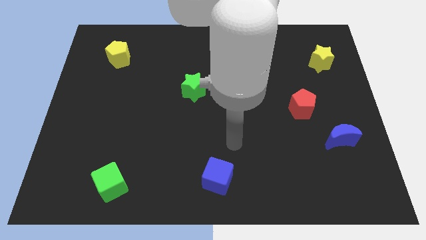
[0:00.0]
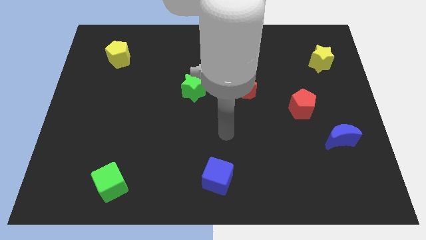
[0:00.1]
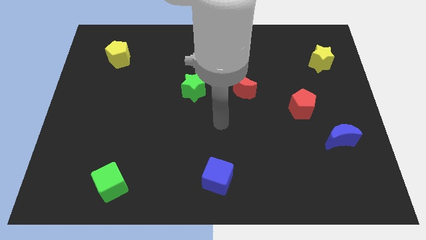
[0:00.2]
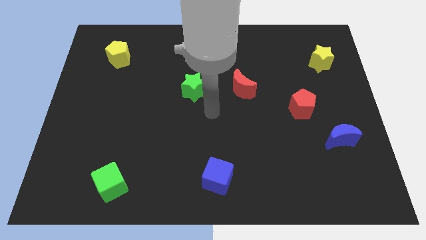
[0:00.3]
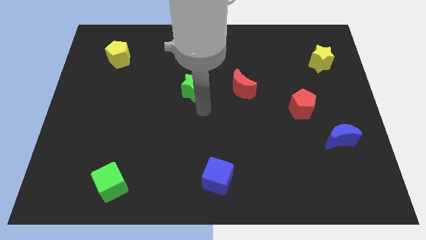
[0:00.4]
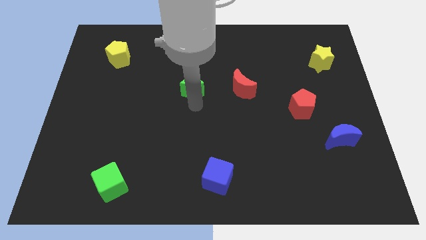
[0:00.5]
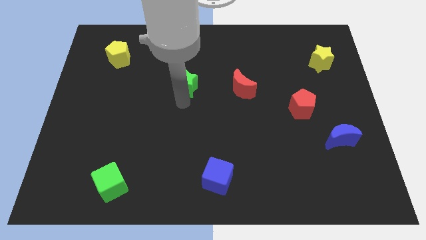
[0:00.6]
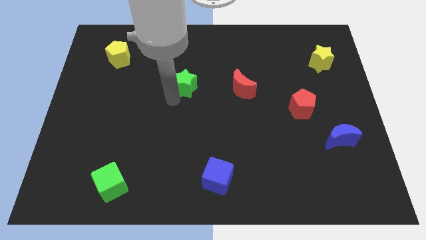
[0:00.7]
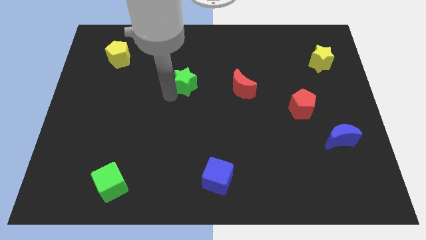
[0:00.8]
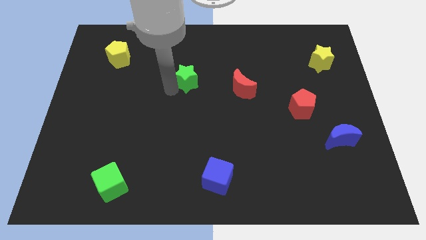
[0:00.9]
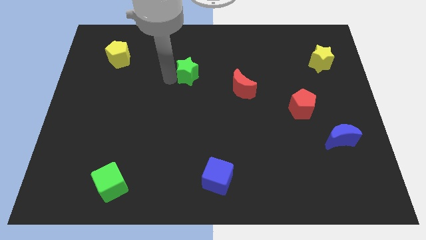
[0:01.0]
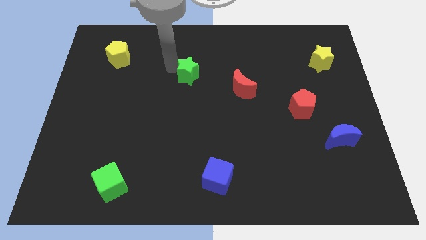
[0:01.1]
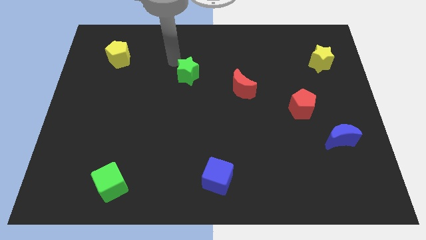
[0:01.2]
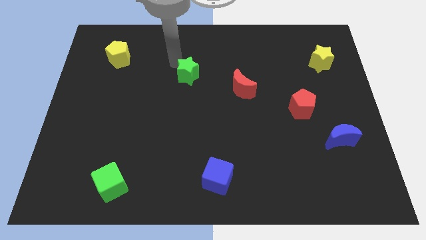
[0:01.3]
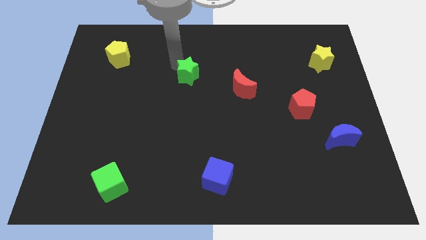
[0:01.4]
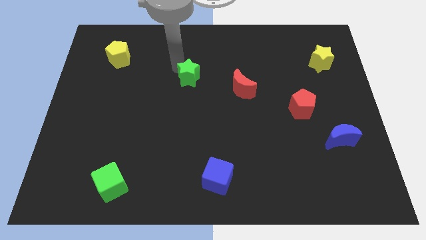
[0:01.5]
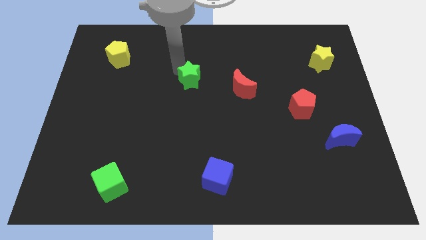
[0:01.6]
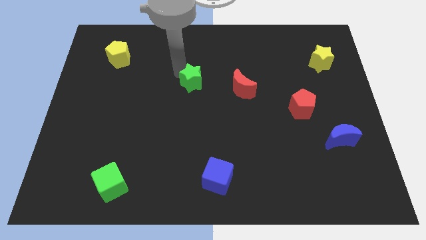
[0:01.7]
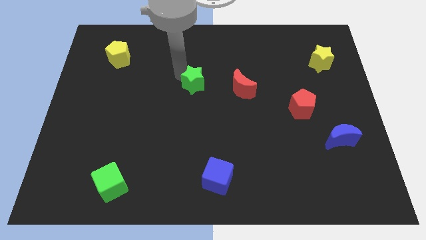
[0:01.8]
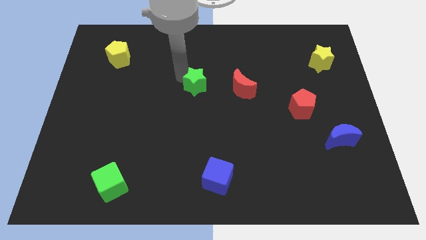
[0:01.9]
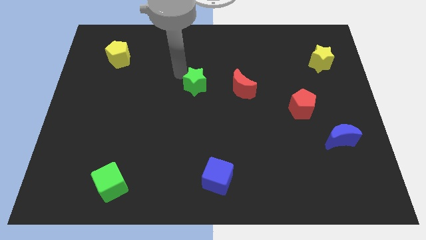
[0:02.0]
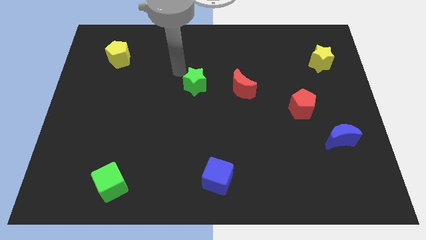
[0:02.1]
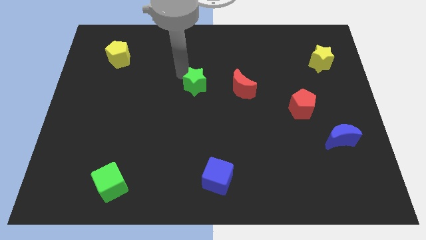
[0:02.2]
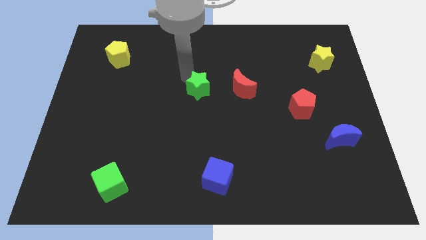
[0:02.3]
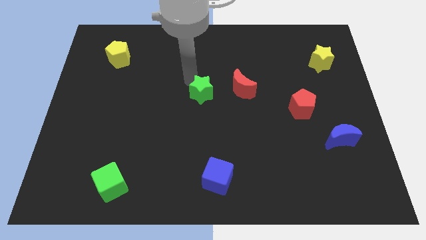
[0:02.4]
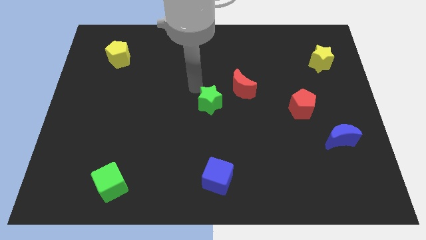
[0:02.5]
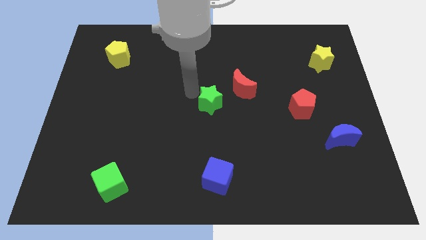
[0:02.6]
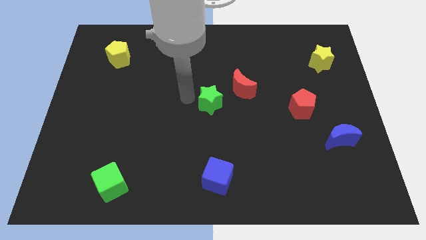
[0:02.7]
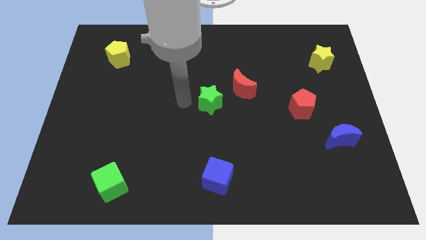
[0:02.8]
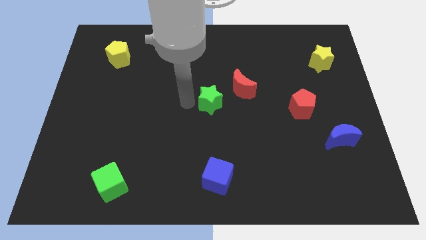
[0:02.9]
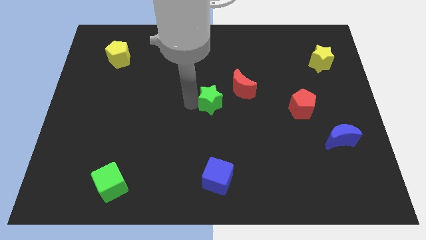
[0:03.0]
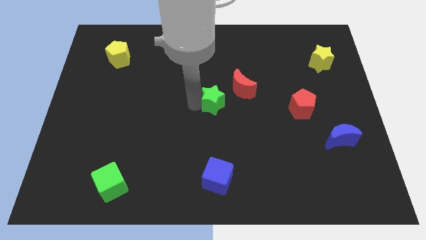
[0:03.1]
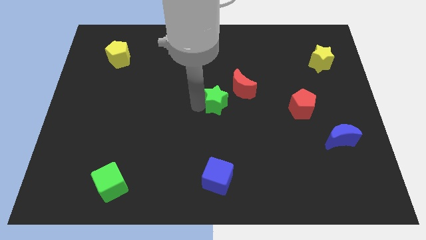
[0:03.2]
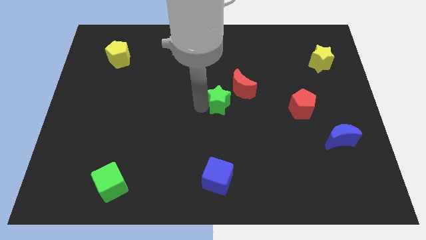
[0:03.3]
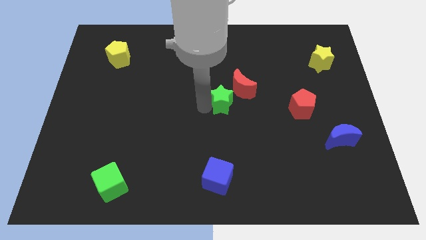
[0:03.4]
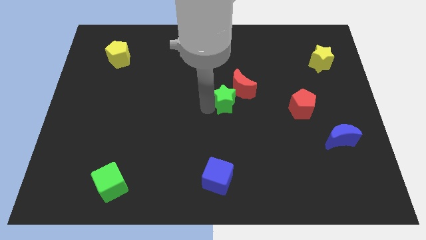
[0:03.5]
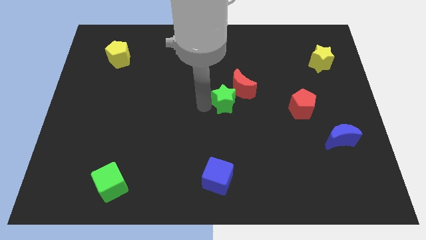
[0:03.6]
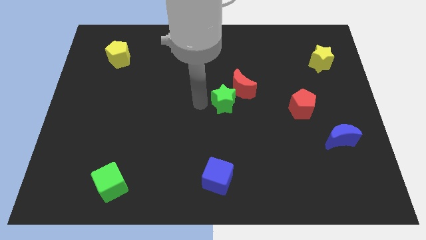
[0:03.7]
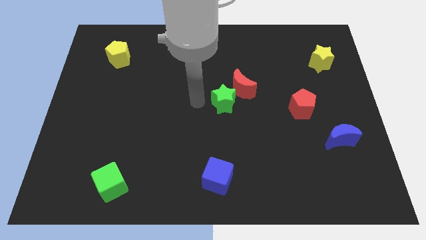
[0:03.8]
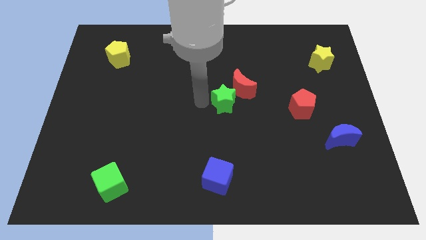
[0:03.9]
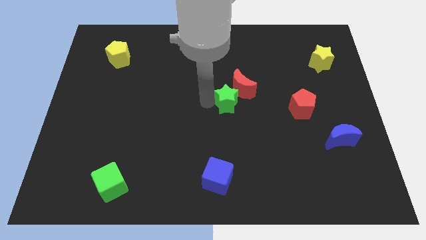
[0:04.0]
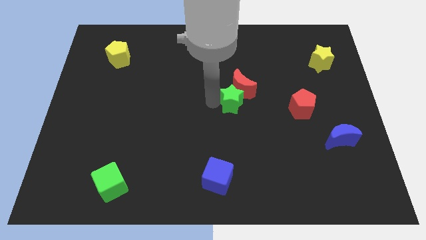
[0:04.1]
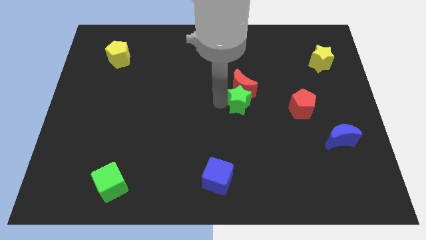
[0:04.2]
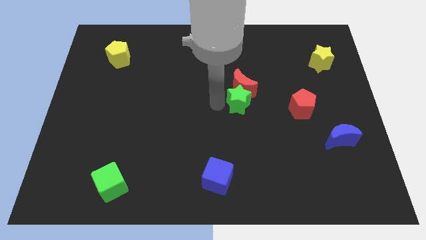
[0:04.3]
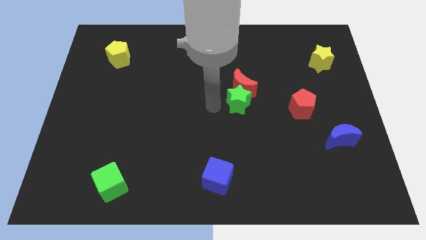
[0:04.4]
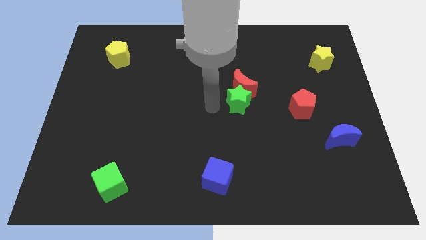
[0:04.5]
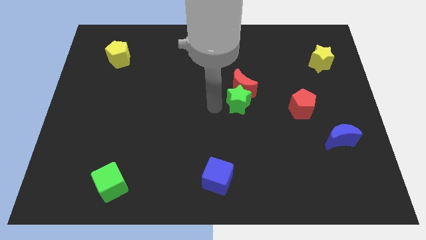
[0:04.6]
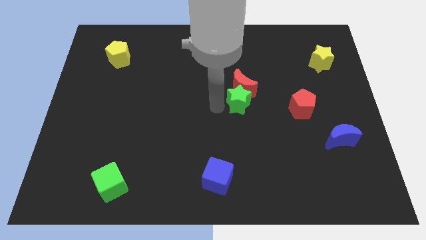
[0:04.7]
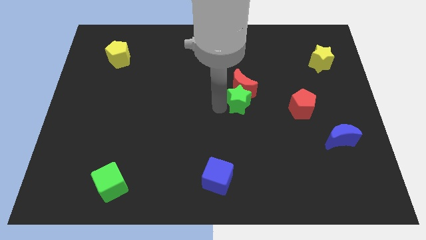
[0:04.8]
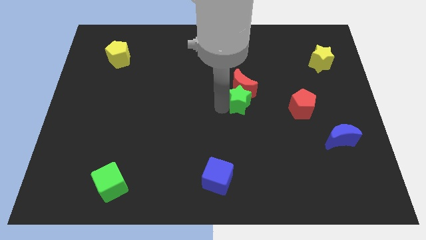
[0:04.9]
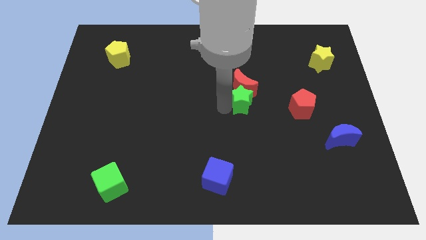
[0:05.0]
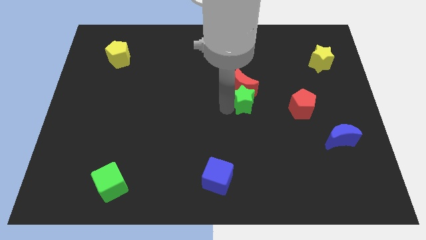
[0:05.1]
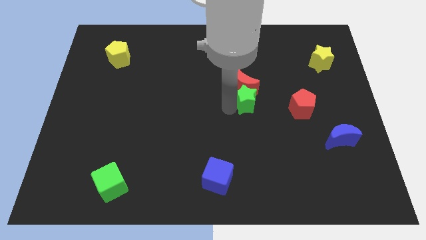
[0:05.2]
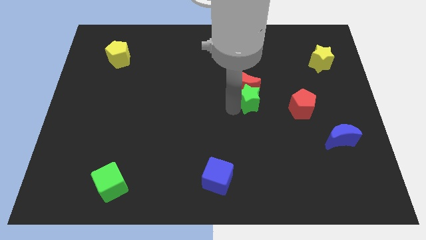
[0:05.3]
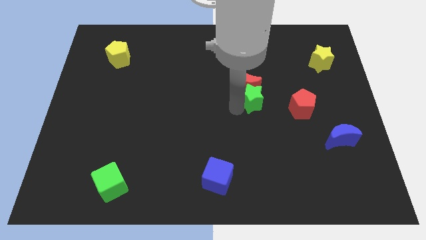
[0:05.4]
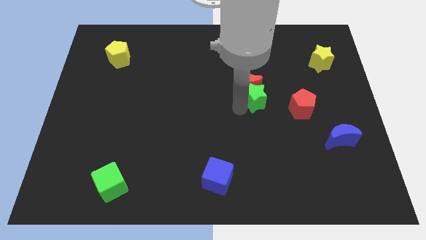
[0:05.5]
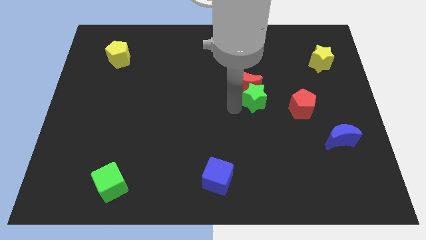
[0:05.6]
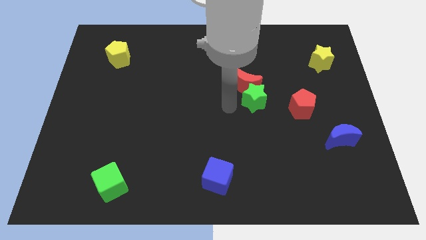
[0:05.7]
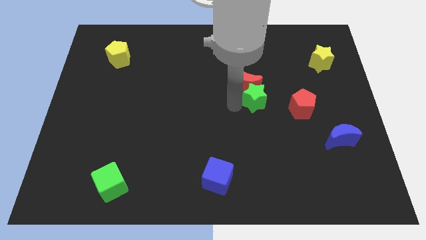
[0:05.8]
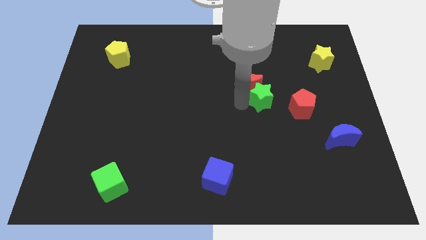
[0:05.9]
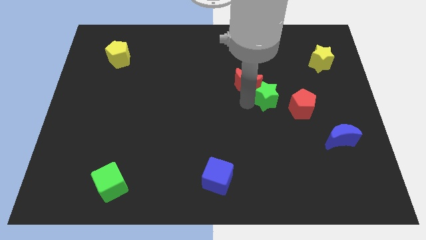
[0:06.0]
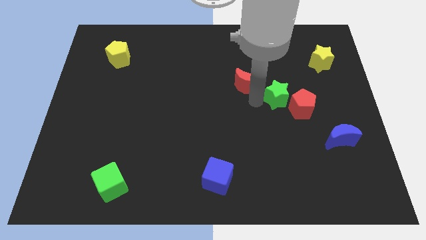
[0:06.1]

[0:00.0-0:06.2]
slide the green star to the right

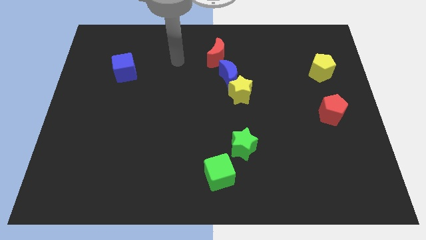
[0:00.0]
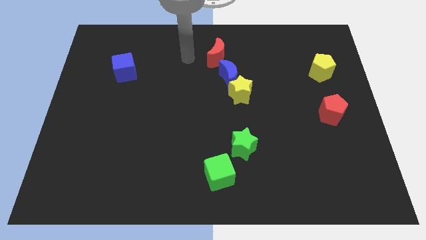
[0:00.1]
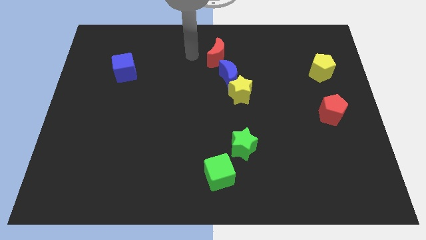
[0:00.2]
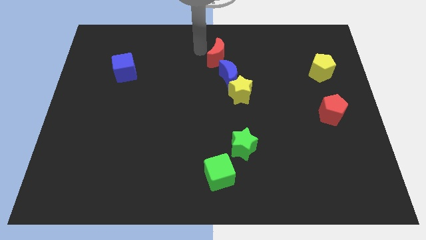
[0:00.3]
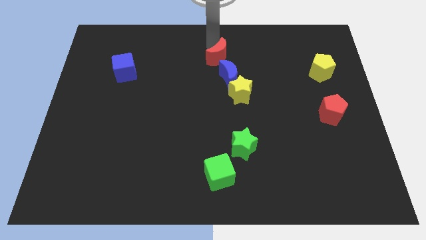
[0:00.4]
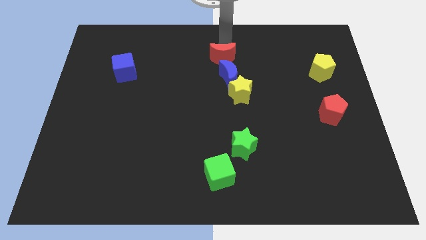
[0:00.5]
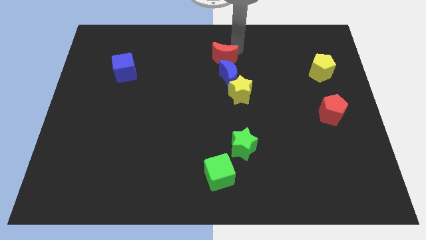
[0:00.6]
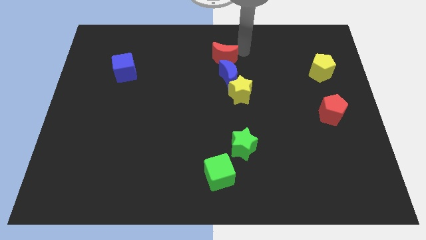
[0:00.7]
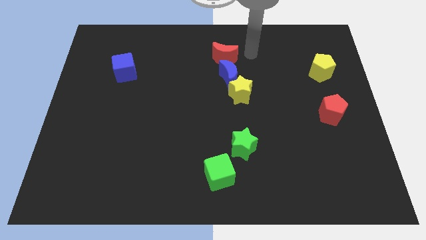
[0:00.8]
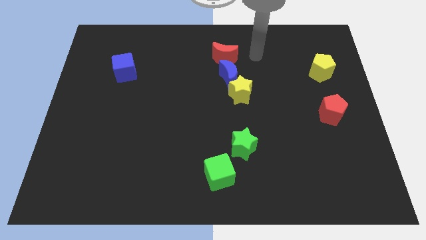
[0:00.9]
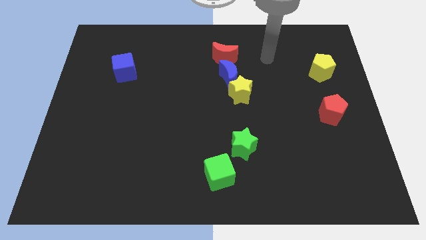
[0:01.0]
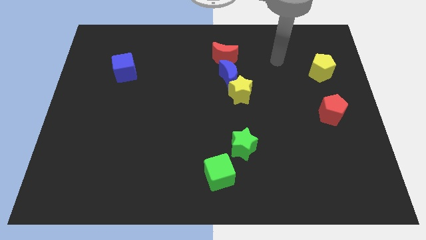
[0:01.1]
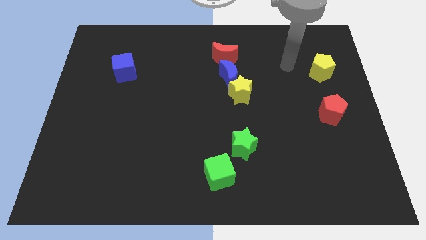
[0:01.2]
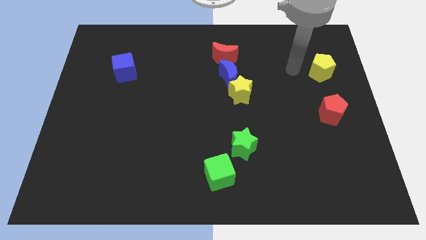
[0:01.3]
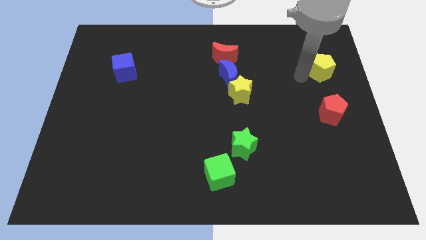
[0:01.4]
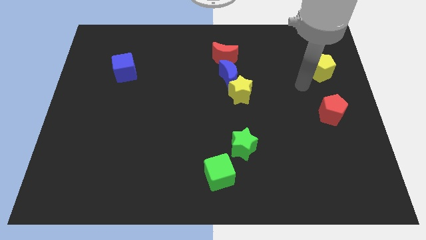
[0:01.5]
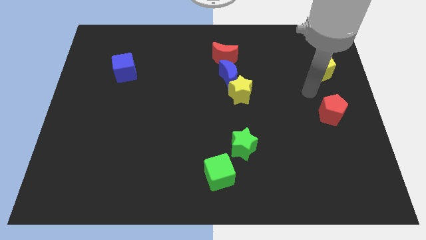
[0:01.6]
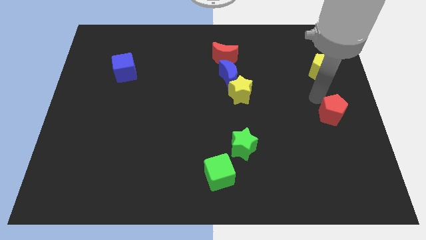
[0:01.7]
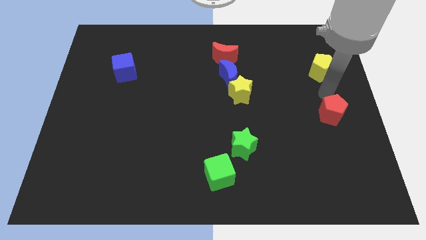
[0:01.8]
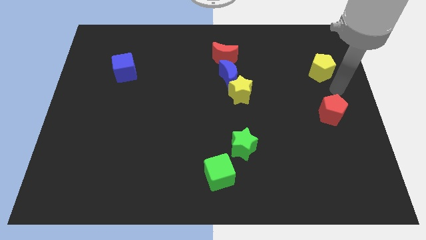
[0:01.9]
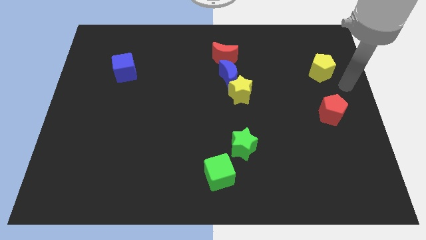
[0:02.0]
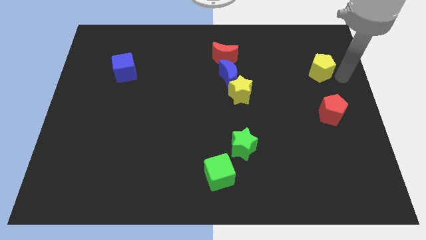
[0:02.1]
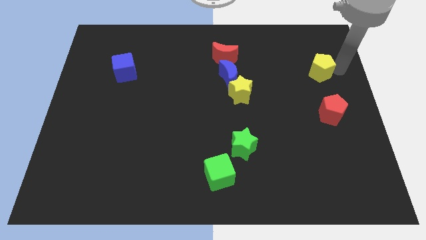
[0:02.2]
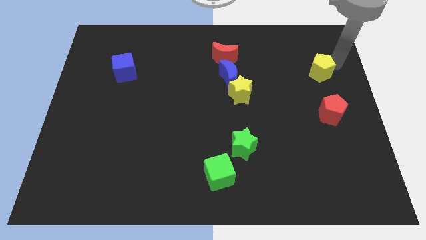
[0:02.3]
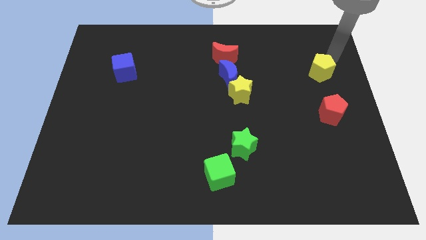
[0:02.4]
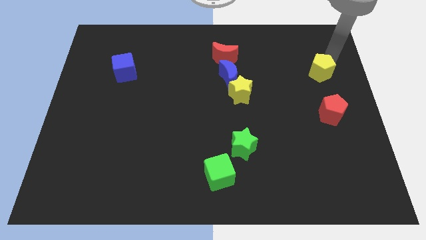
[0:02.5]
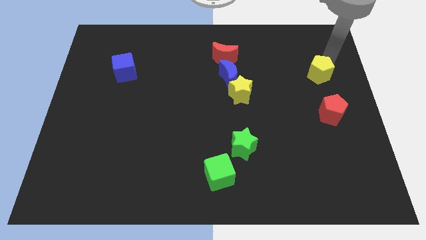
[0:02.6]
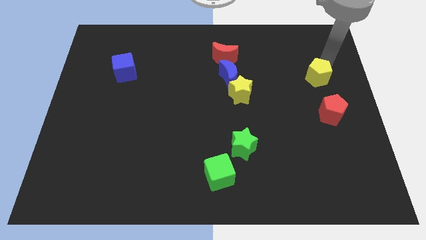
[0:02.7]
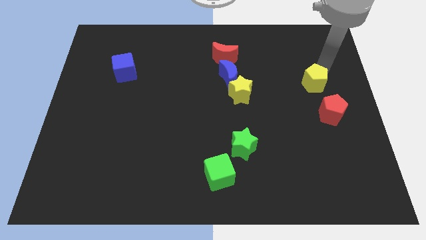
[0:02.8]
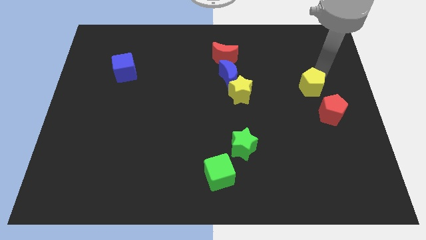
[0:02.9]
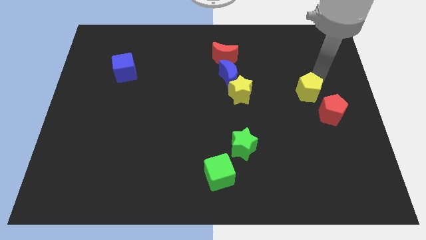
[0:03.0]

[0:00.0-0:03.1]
slide the yellow pentagon slightly down and then left
